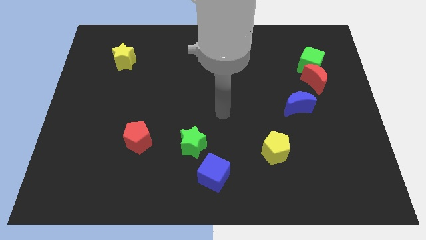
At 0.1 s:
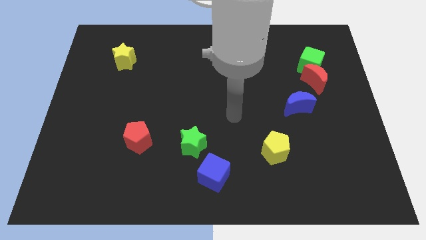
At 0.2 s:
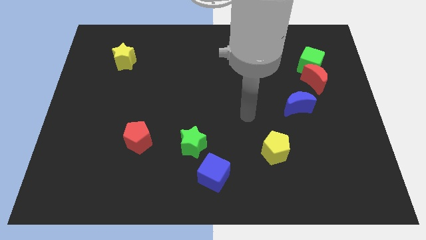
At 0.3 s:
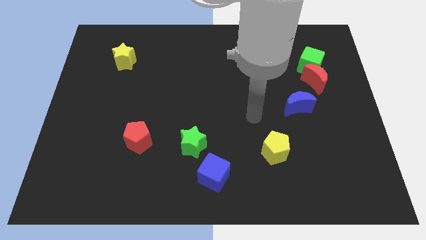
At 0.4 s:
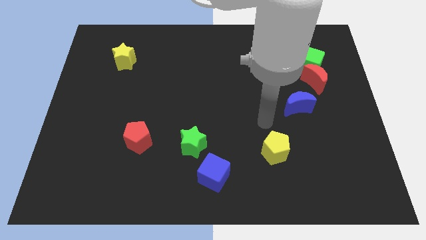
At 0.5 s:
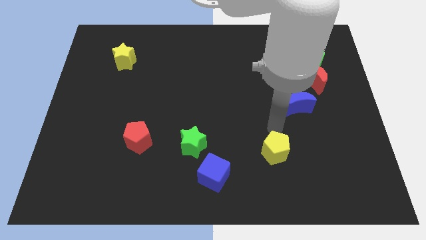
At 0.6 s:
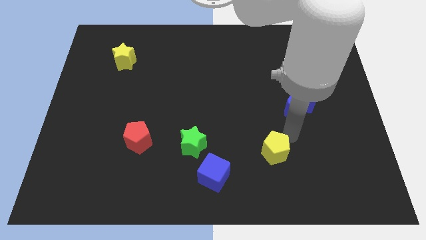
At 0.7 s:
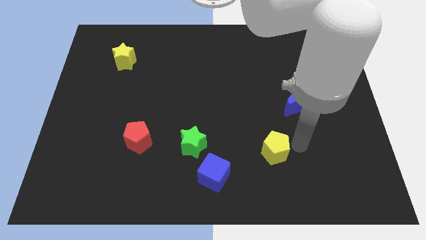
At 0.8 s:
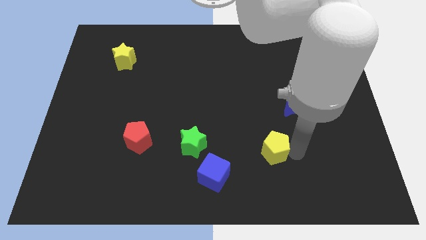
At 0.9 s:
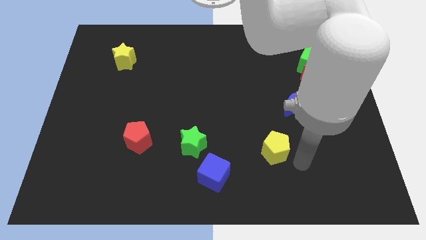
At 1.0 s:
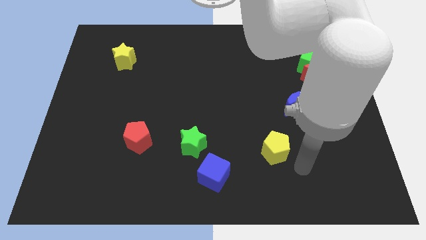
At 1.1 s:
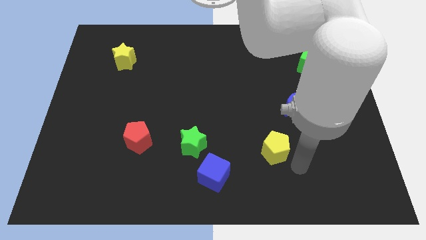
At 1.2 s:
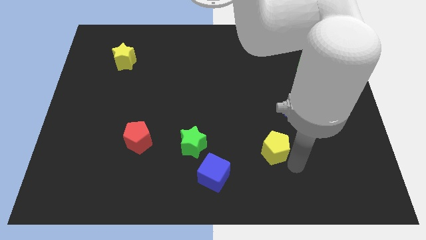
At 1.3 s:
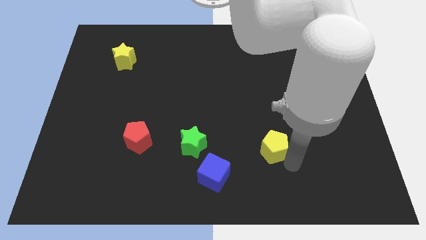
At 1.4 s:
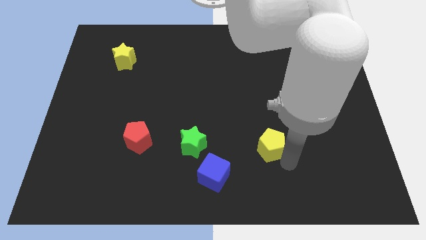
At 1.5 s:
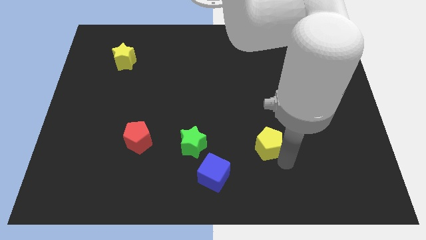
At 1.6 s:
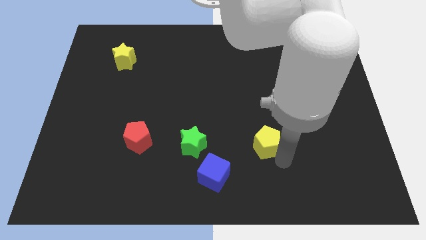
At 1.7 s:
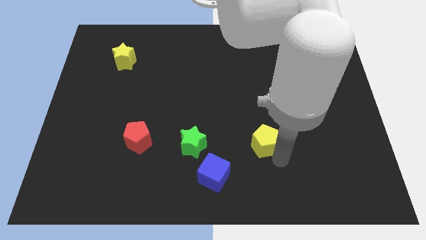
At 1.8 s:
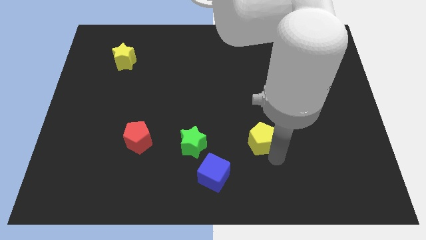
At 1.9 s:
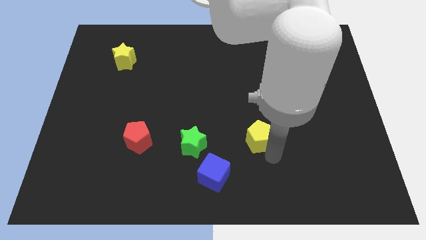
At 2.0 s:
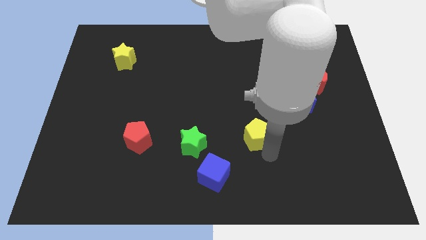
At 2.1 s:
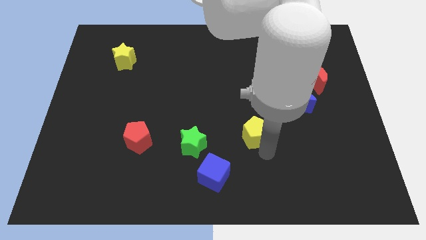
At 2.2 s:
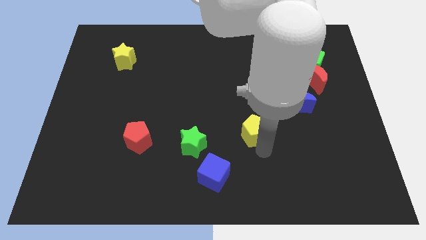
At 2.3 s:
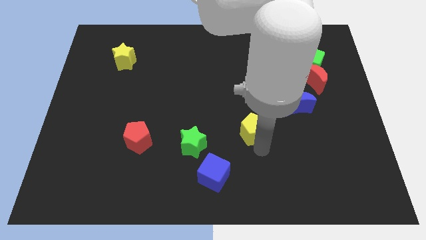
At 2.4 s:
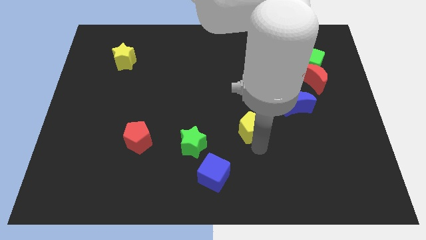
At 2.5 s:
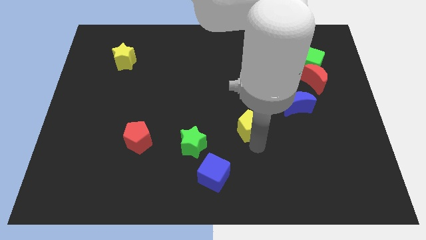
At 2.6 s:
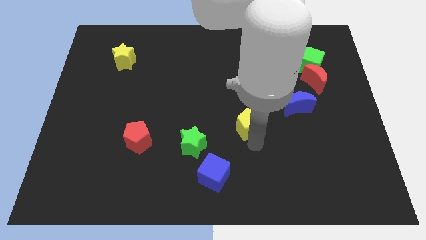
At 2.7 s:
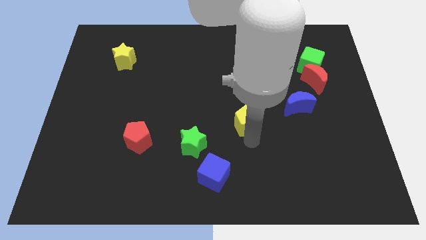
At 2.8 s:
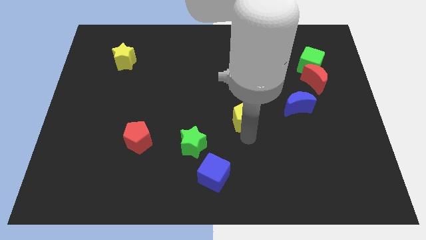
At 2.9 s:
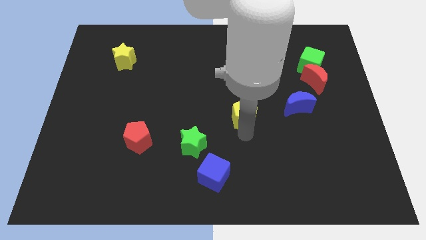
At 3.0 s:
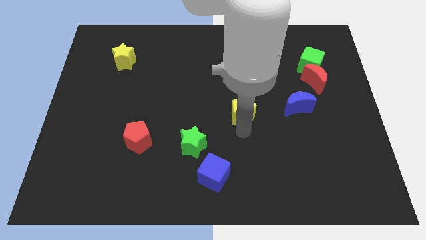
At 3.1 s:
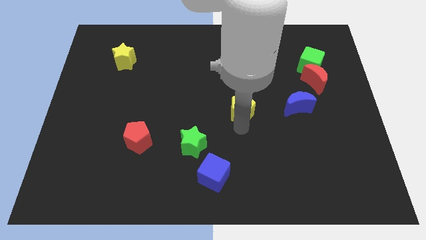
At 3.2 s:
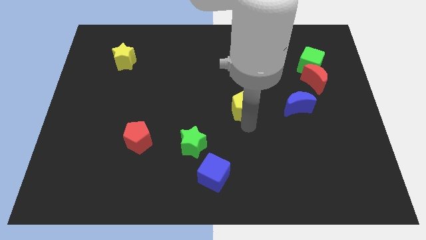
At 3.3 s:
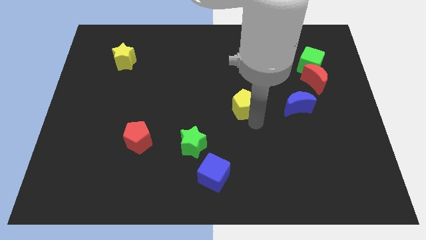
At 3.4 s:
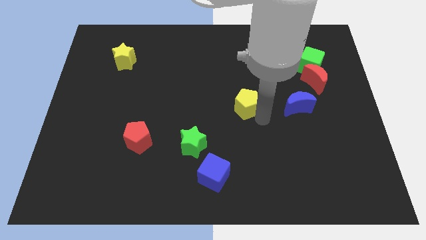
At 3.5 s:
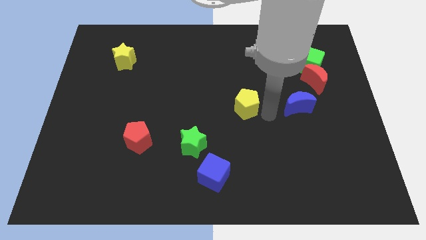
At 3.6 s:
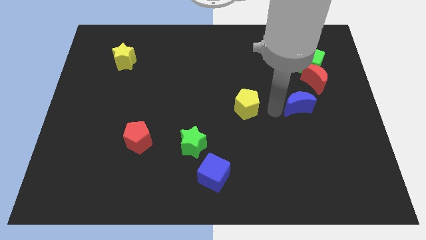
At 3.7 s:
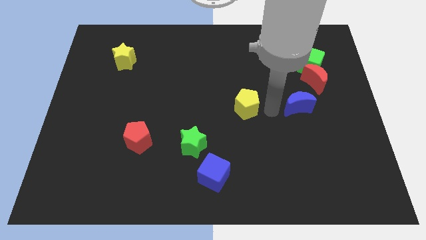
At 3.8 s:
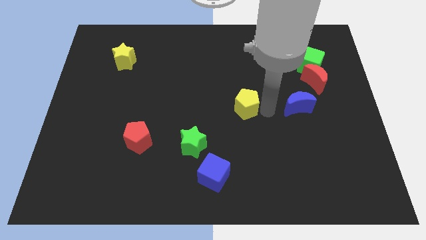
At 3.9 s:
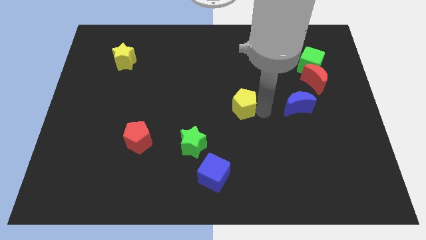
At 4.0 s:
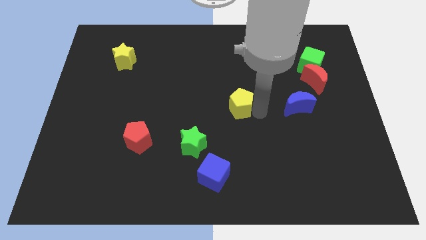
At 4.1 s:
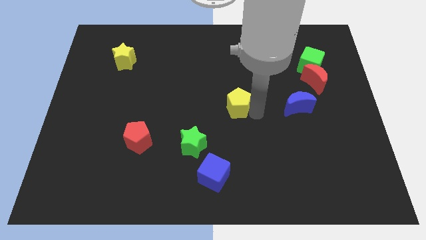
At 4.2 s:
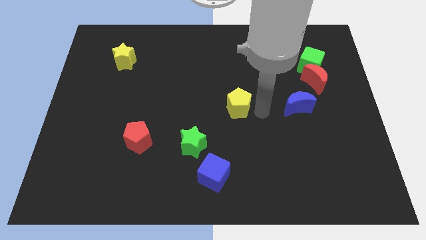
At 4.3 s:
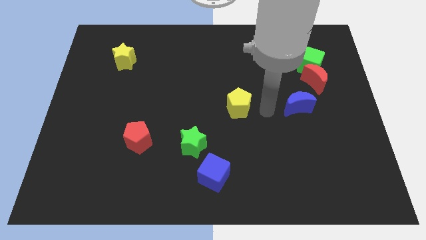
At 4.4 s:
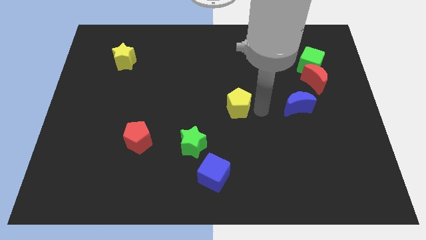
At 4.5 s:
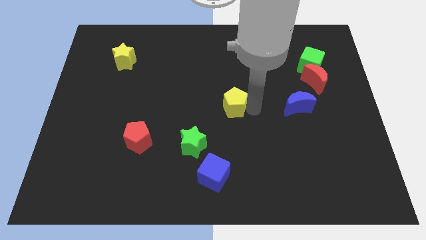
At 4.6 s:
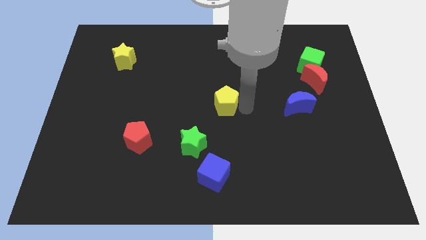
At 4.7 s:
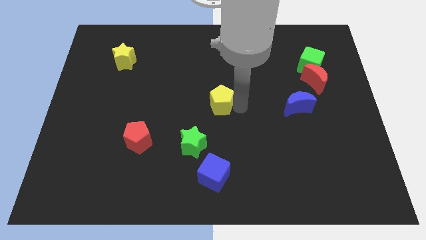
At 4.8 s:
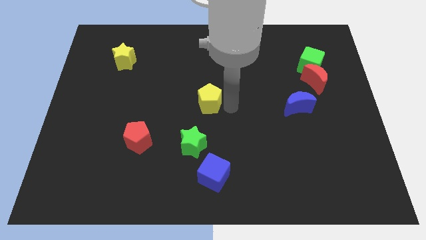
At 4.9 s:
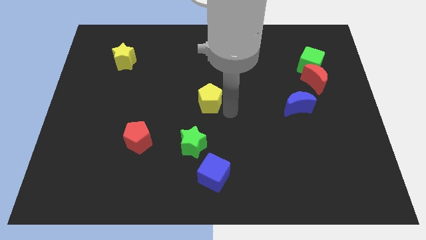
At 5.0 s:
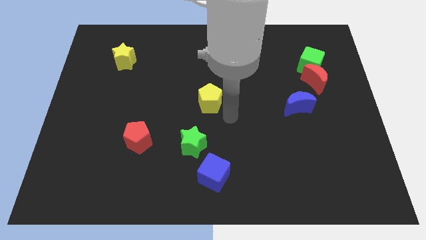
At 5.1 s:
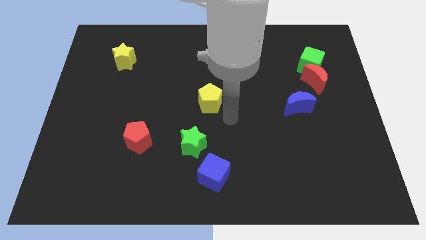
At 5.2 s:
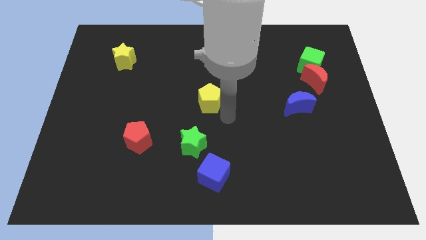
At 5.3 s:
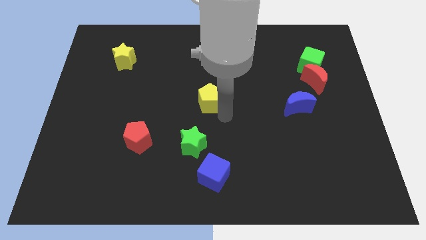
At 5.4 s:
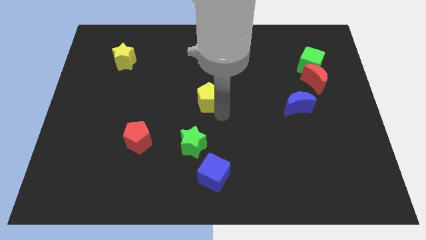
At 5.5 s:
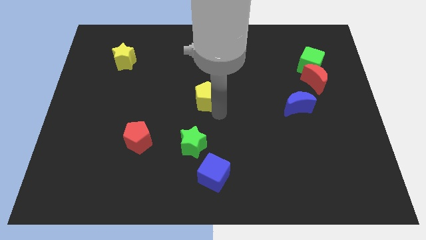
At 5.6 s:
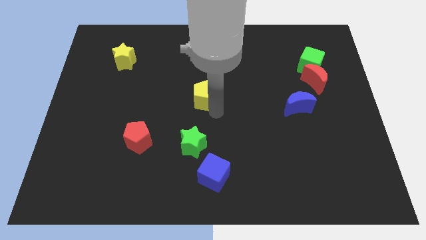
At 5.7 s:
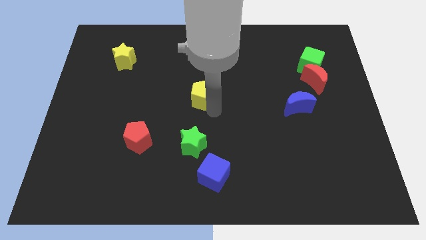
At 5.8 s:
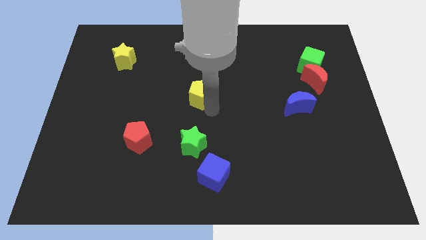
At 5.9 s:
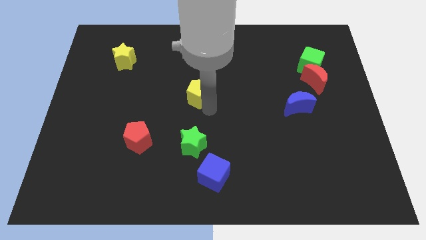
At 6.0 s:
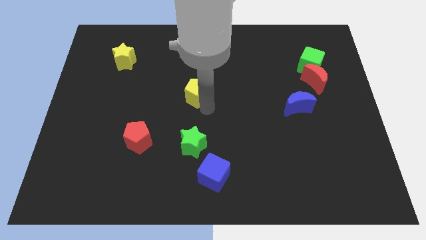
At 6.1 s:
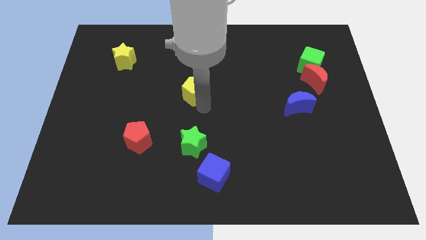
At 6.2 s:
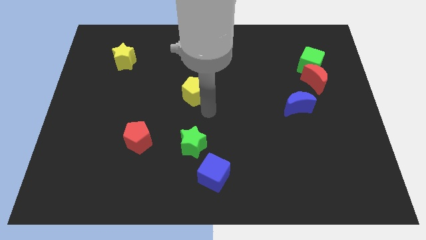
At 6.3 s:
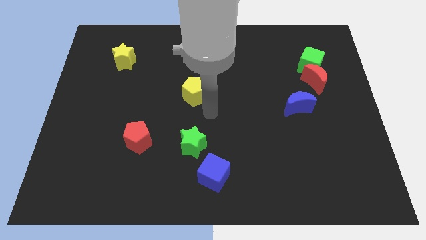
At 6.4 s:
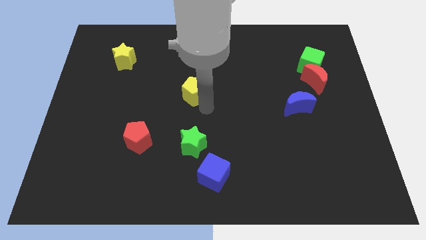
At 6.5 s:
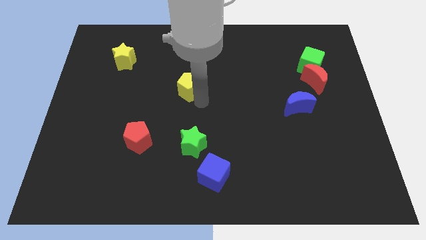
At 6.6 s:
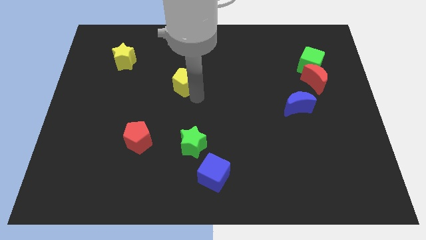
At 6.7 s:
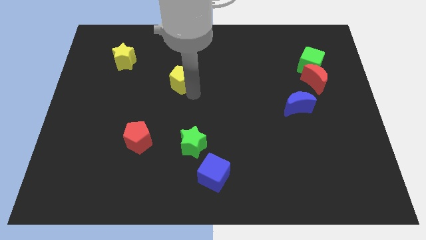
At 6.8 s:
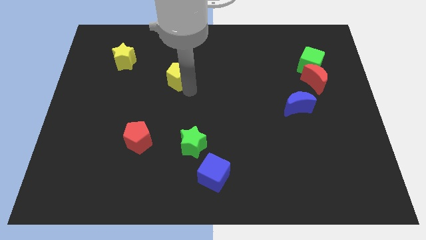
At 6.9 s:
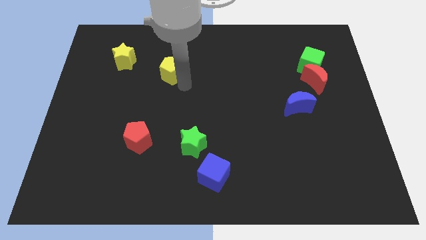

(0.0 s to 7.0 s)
move the yellow pentagon to the right side of the yellow star
